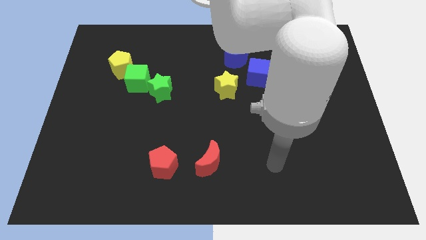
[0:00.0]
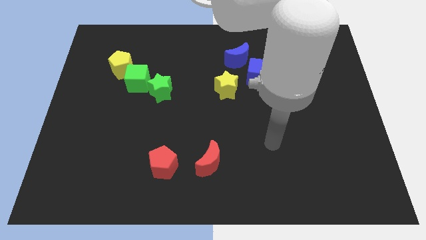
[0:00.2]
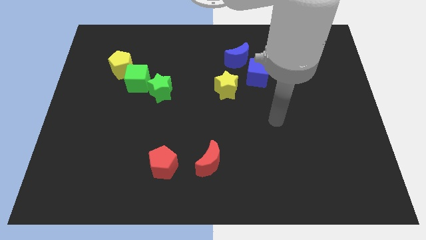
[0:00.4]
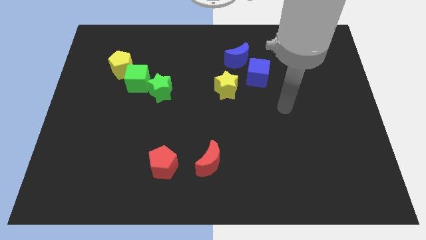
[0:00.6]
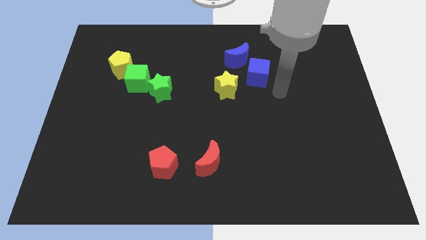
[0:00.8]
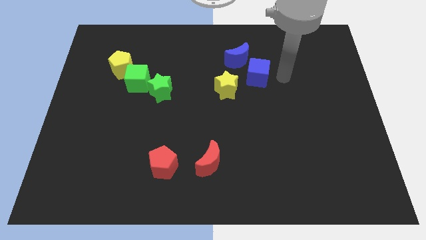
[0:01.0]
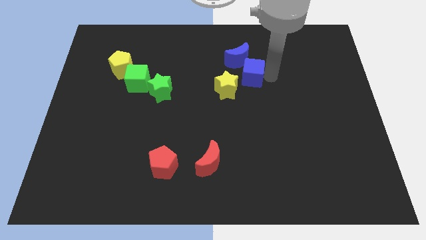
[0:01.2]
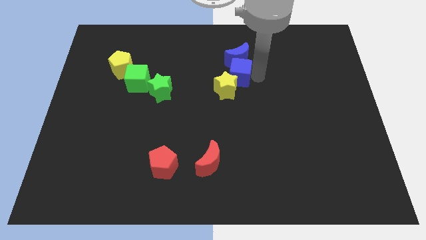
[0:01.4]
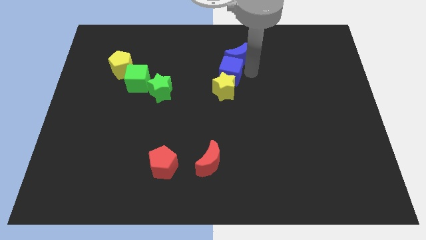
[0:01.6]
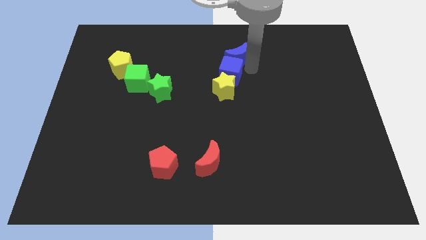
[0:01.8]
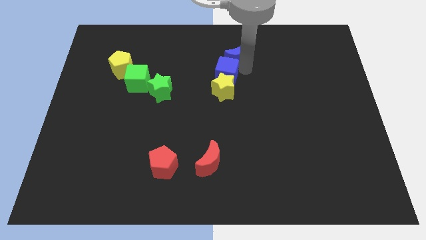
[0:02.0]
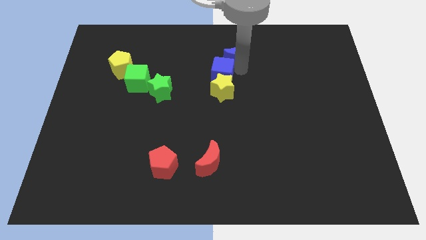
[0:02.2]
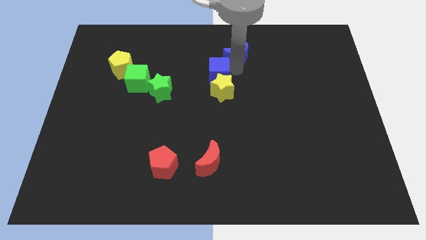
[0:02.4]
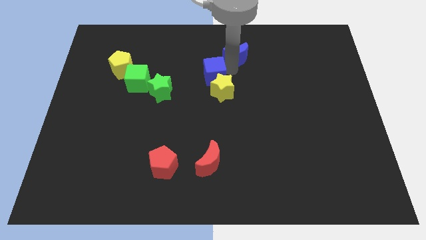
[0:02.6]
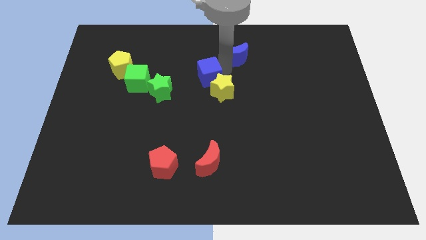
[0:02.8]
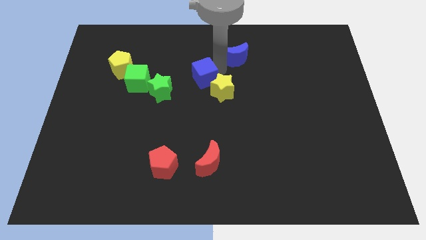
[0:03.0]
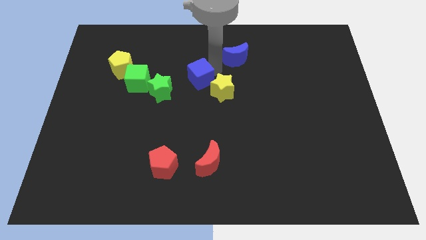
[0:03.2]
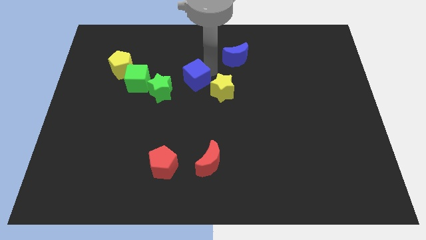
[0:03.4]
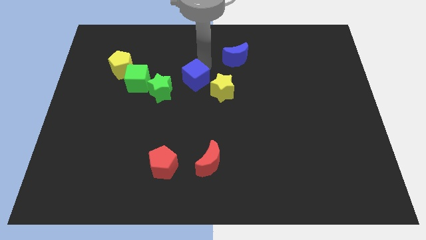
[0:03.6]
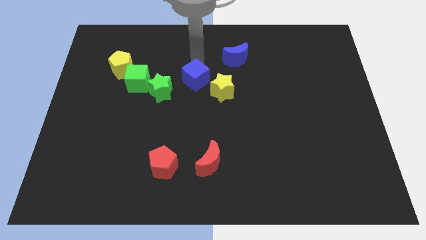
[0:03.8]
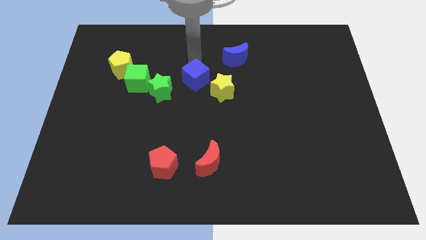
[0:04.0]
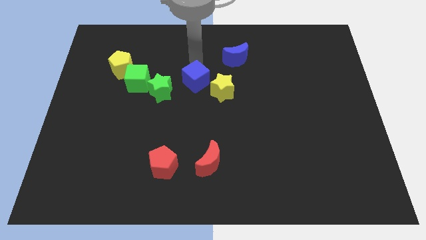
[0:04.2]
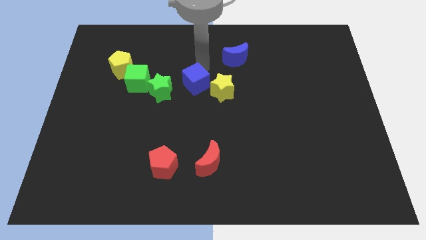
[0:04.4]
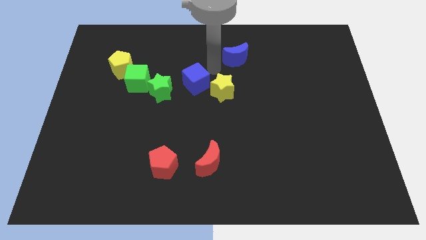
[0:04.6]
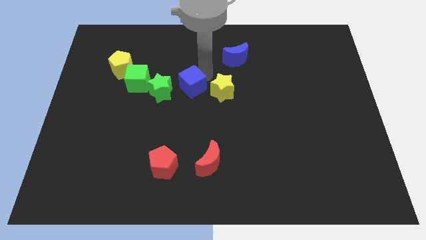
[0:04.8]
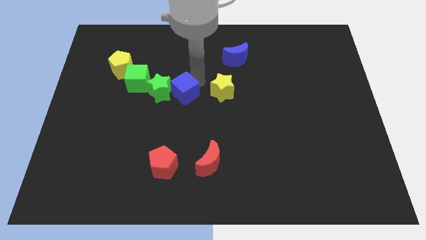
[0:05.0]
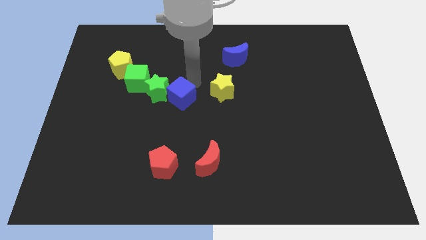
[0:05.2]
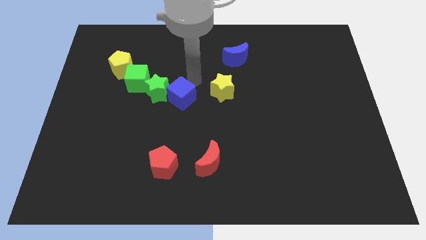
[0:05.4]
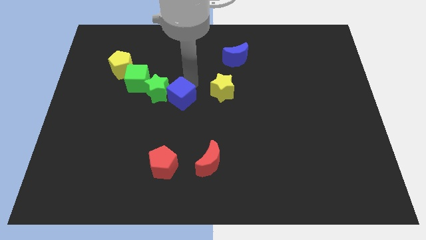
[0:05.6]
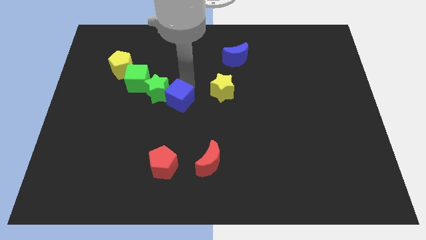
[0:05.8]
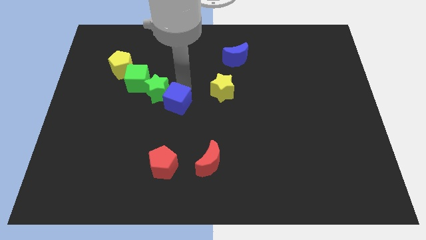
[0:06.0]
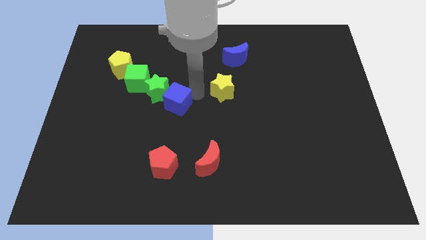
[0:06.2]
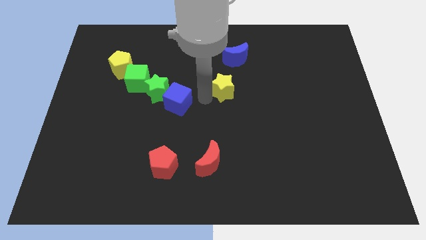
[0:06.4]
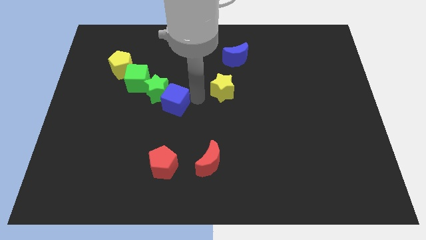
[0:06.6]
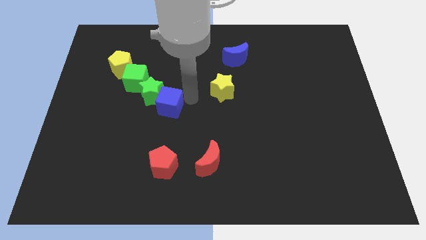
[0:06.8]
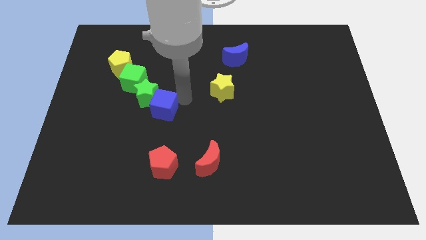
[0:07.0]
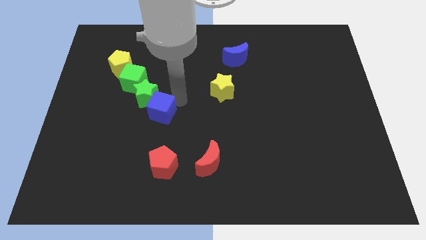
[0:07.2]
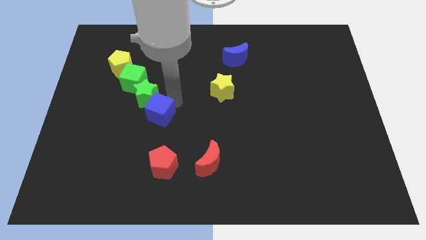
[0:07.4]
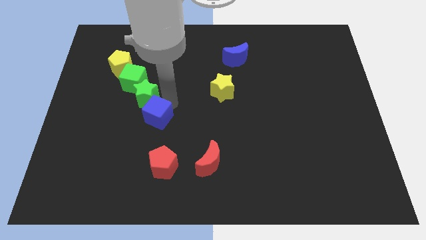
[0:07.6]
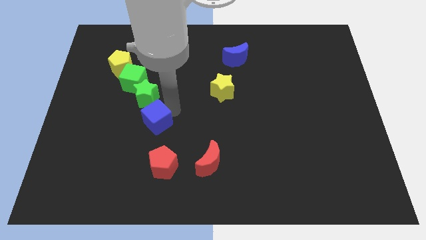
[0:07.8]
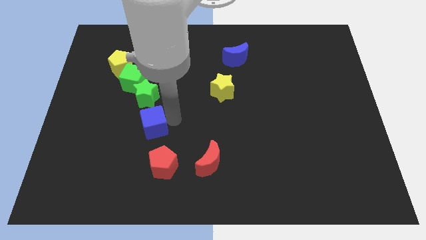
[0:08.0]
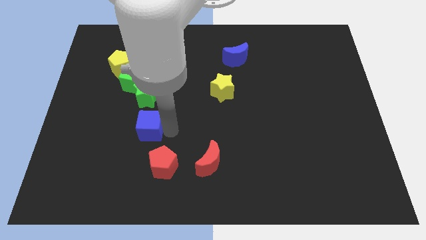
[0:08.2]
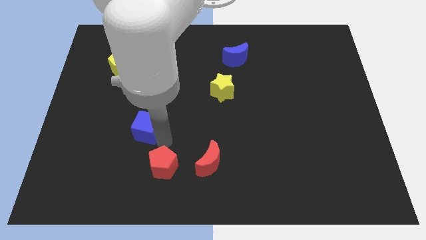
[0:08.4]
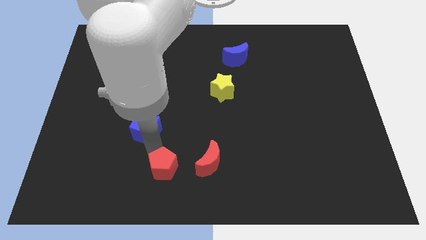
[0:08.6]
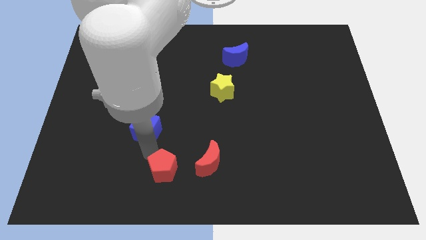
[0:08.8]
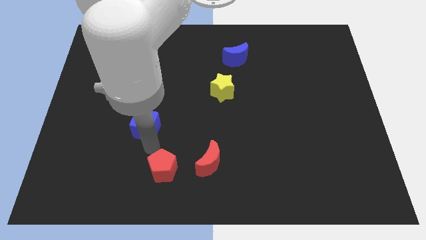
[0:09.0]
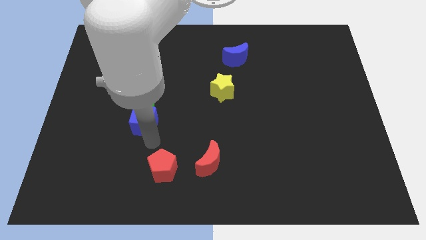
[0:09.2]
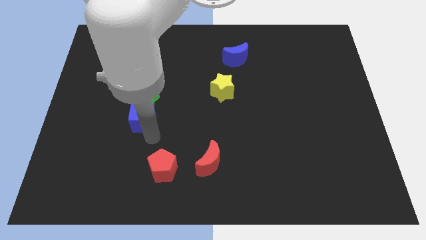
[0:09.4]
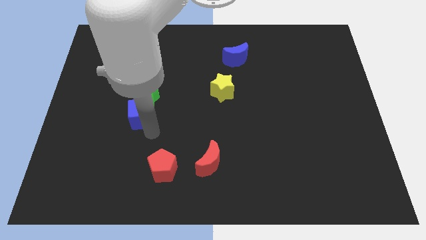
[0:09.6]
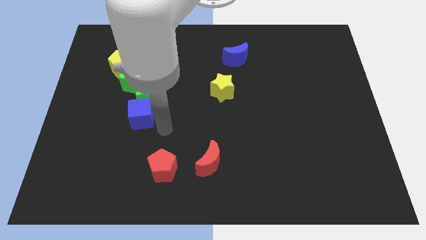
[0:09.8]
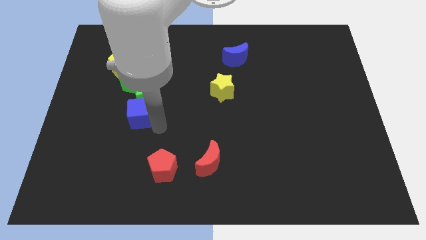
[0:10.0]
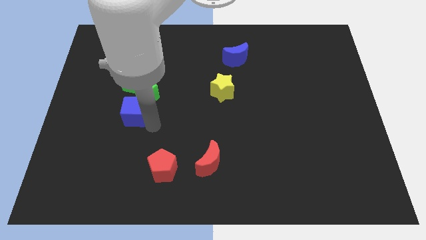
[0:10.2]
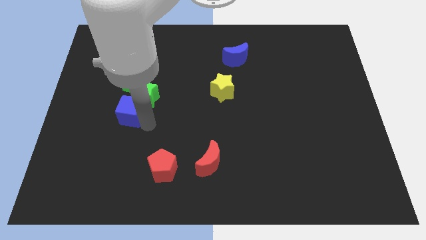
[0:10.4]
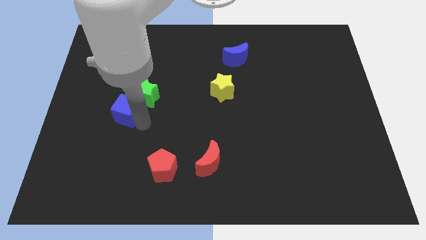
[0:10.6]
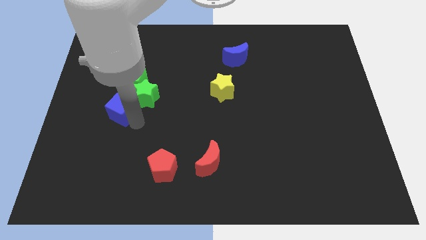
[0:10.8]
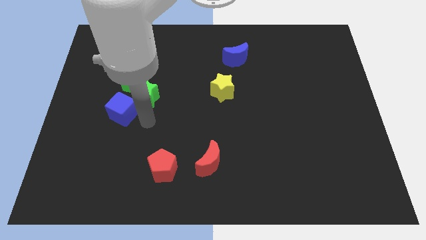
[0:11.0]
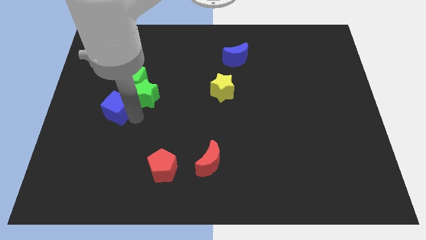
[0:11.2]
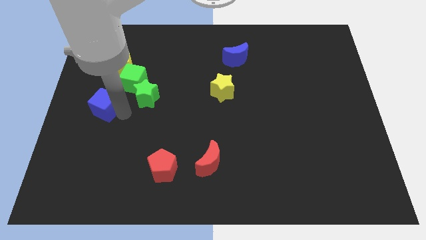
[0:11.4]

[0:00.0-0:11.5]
put the blue cube to the left side of the board
